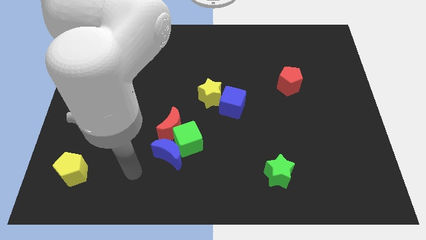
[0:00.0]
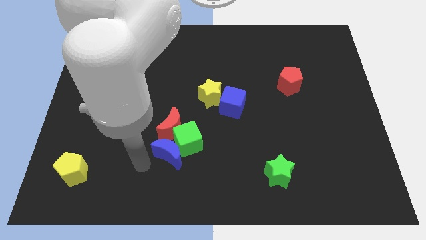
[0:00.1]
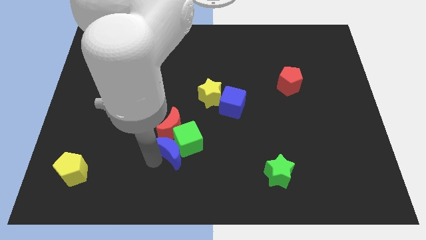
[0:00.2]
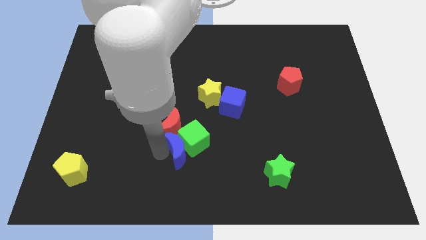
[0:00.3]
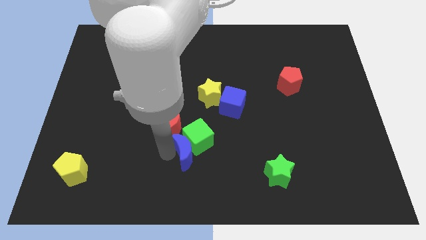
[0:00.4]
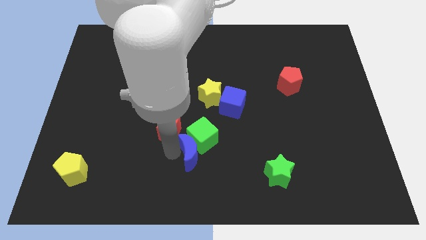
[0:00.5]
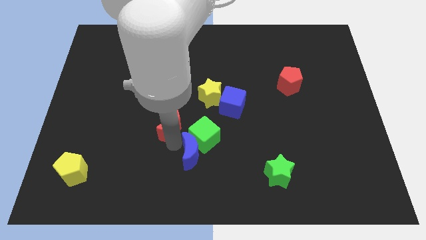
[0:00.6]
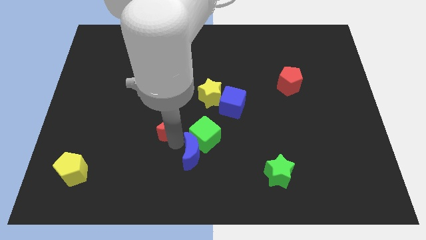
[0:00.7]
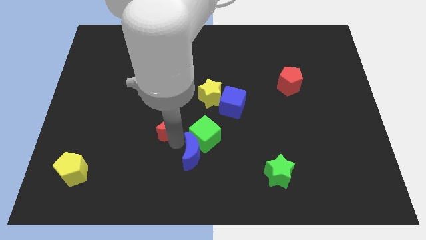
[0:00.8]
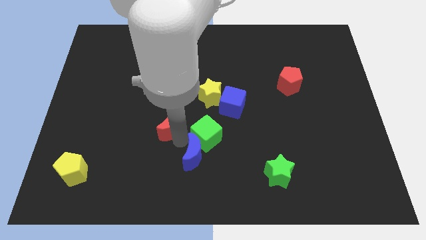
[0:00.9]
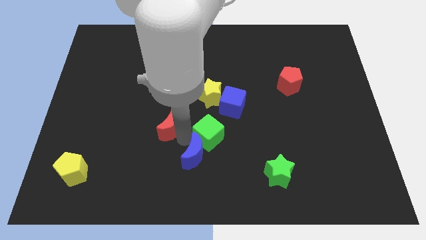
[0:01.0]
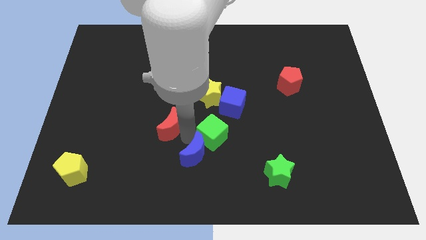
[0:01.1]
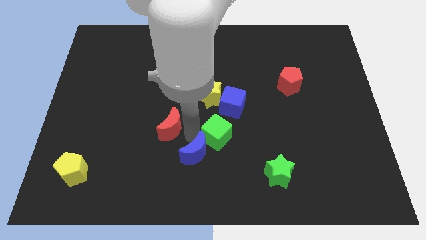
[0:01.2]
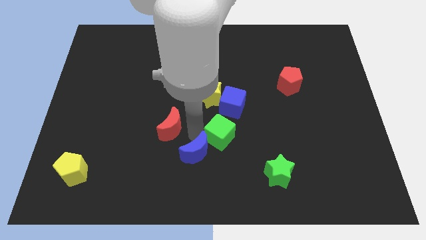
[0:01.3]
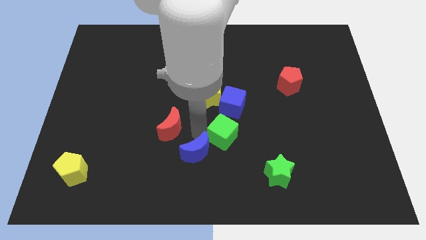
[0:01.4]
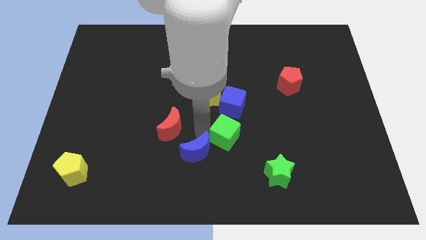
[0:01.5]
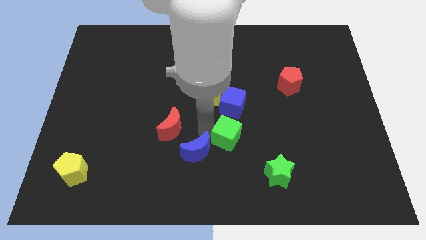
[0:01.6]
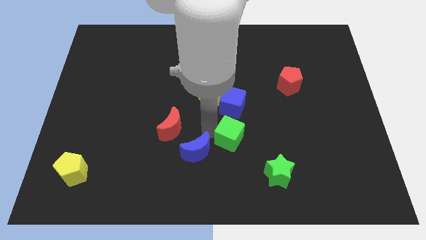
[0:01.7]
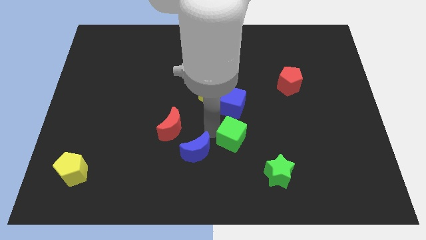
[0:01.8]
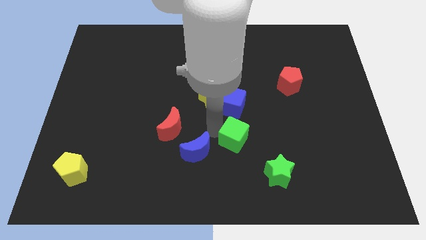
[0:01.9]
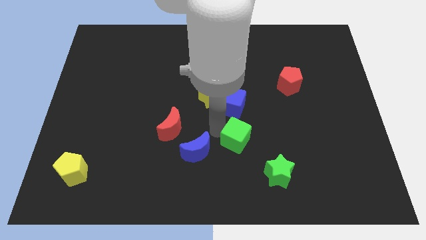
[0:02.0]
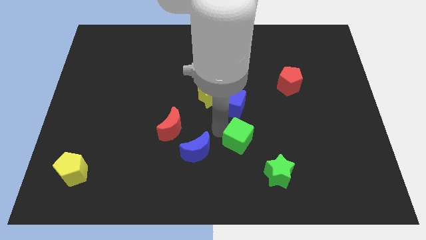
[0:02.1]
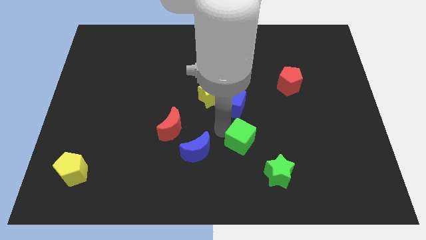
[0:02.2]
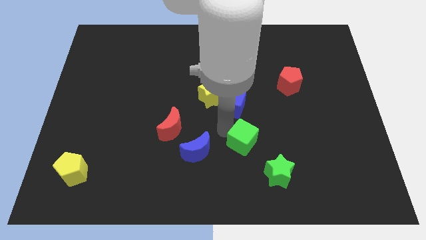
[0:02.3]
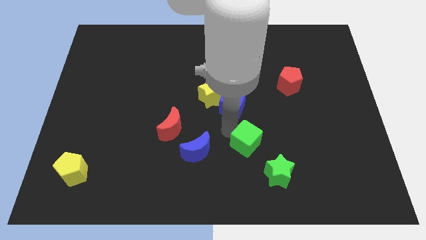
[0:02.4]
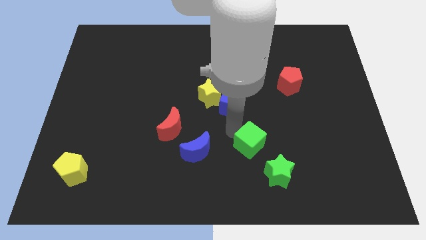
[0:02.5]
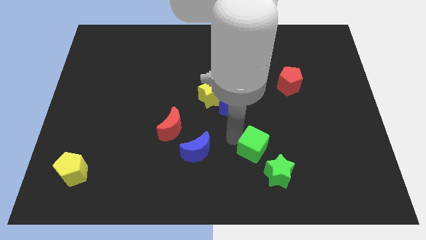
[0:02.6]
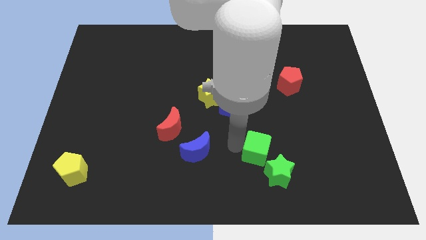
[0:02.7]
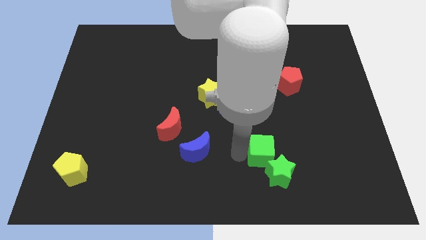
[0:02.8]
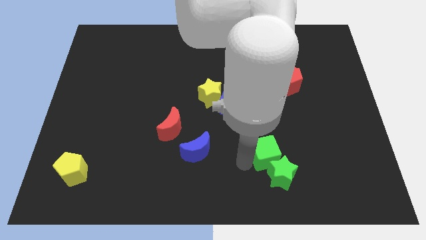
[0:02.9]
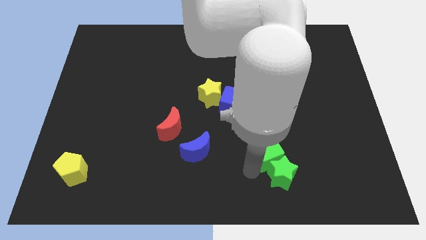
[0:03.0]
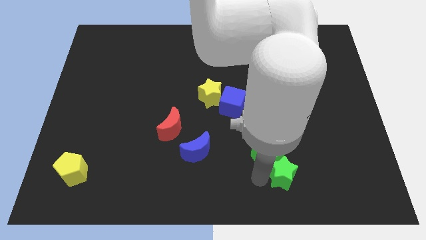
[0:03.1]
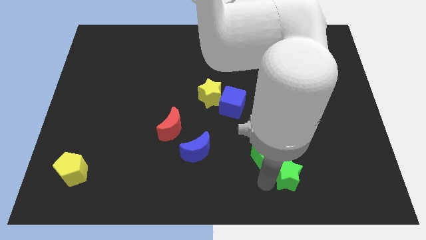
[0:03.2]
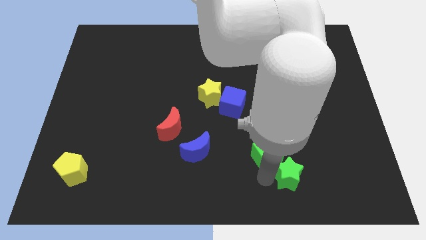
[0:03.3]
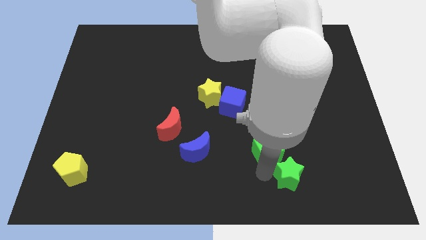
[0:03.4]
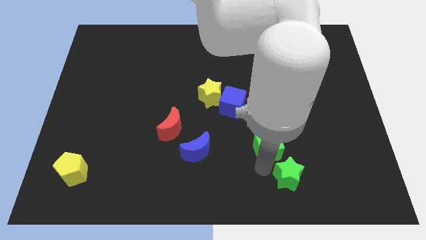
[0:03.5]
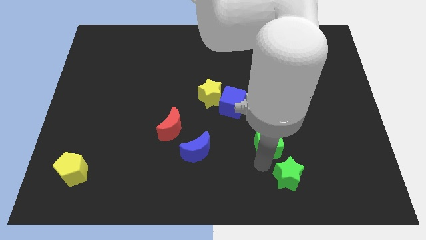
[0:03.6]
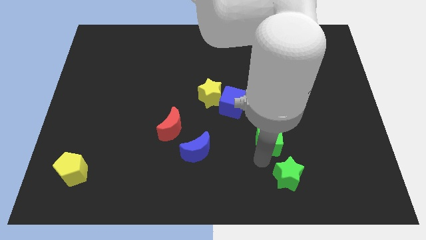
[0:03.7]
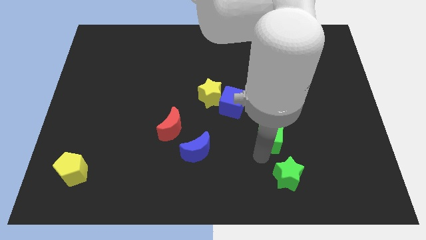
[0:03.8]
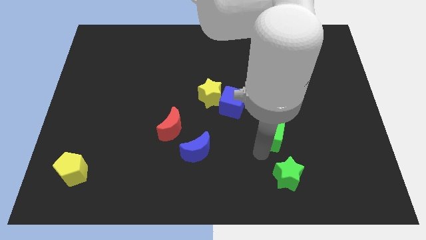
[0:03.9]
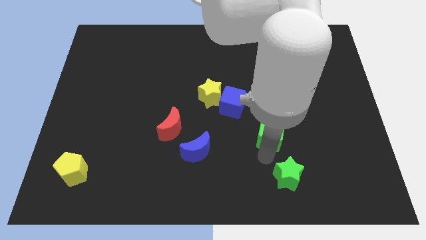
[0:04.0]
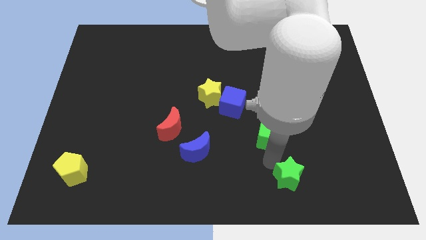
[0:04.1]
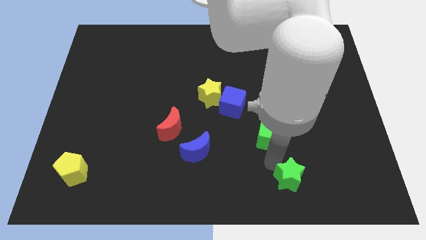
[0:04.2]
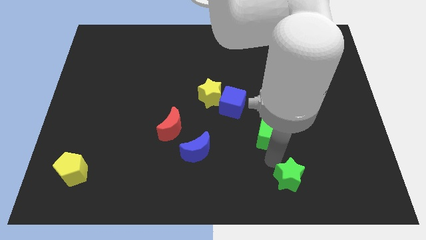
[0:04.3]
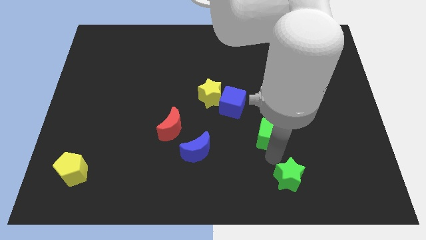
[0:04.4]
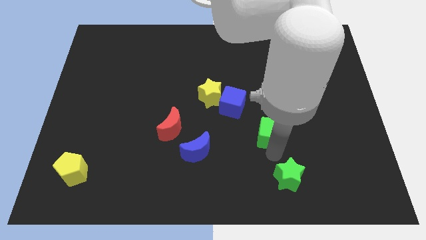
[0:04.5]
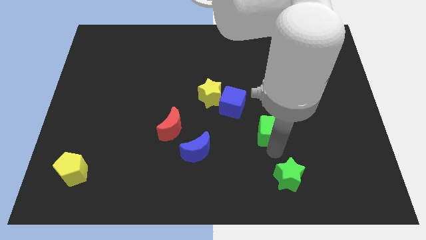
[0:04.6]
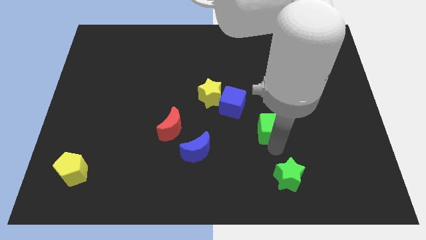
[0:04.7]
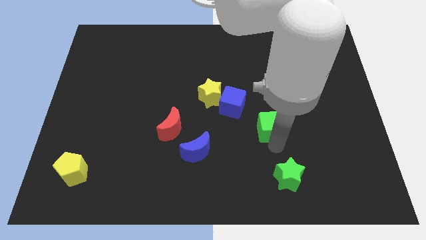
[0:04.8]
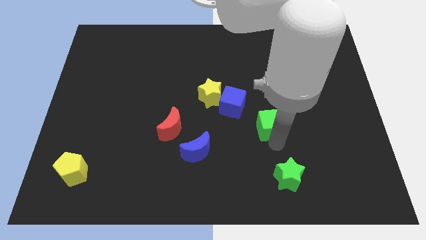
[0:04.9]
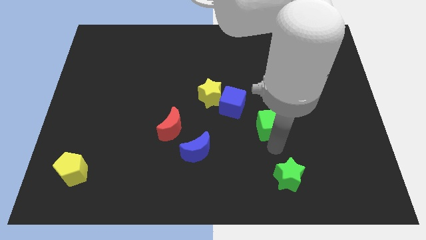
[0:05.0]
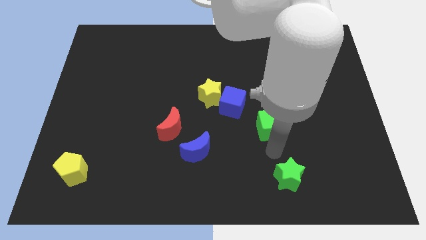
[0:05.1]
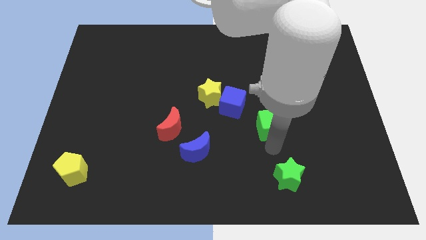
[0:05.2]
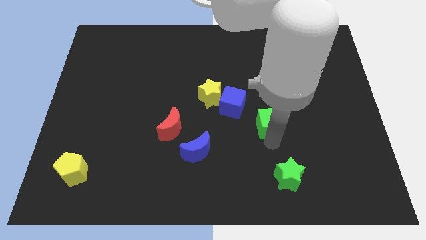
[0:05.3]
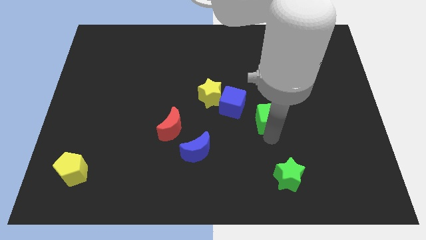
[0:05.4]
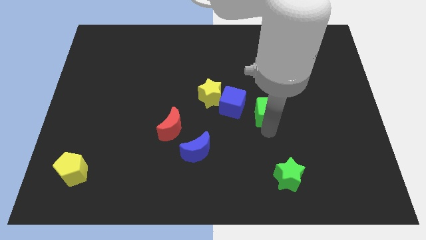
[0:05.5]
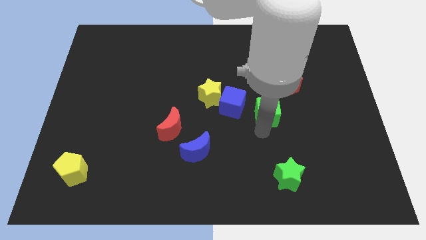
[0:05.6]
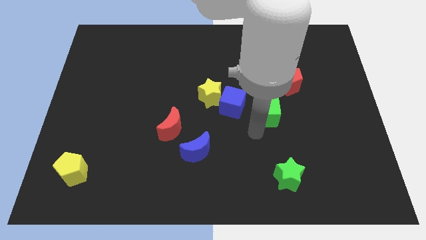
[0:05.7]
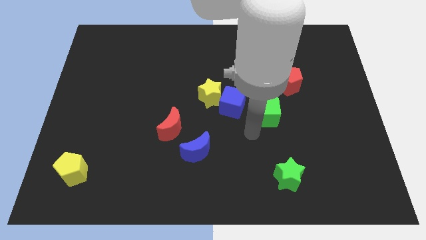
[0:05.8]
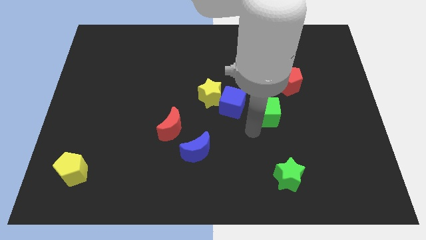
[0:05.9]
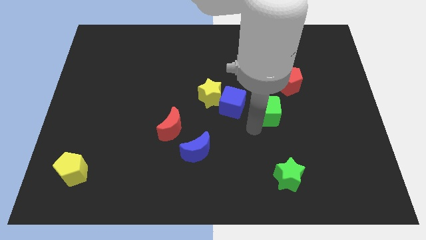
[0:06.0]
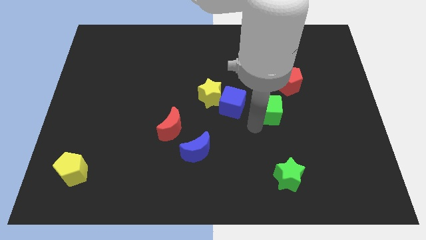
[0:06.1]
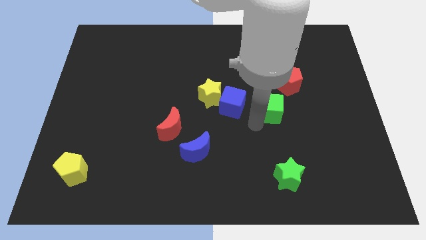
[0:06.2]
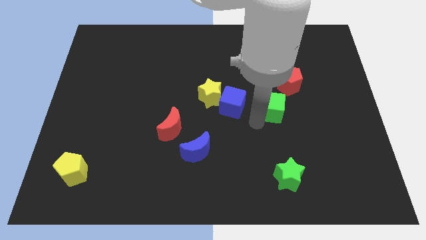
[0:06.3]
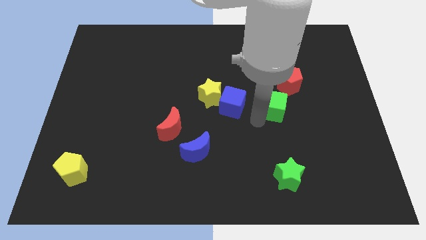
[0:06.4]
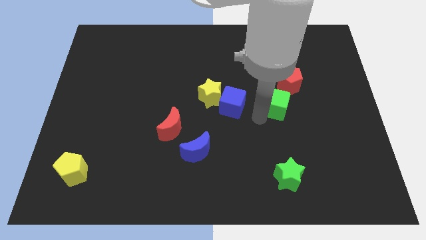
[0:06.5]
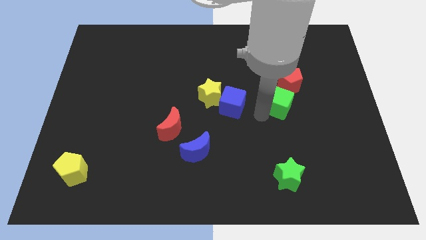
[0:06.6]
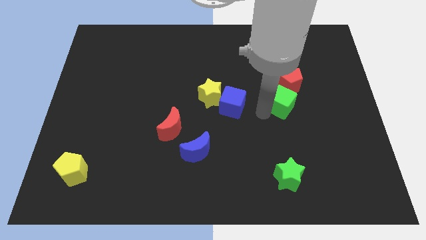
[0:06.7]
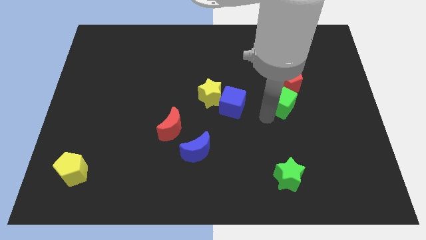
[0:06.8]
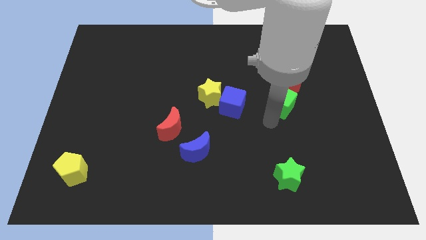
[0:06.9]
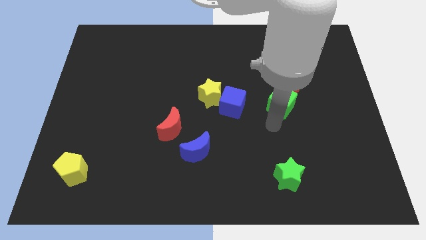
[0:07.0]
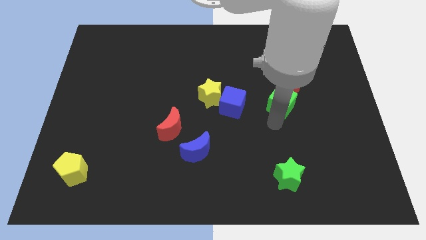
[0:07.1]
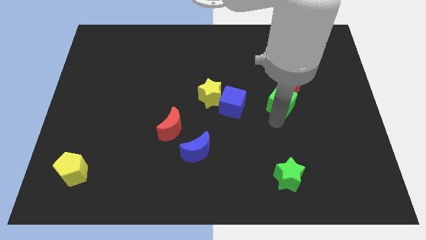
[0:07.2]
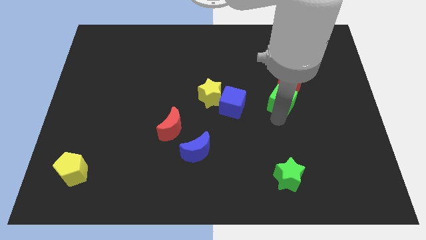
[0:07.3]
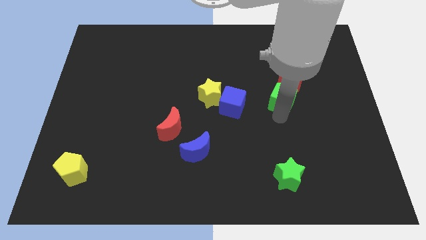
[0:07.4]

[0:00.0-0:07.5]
put the green cube to the red pentagon
